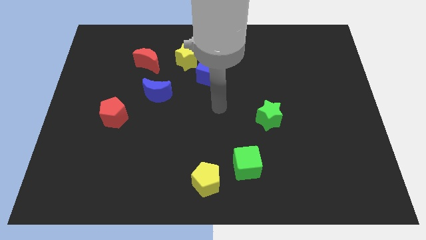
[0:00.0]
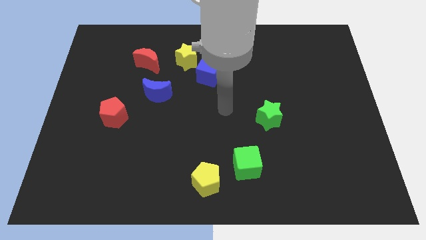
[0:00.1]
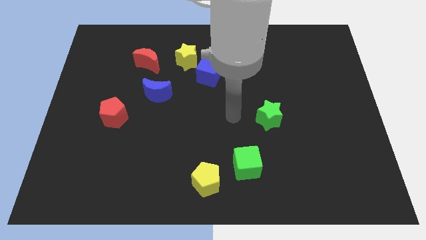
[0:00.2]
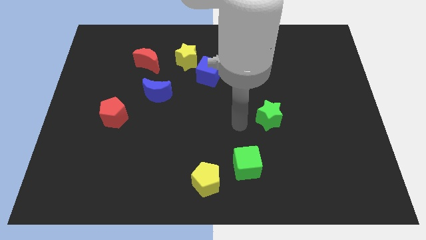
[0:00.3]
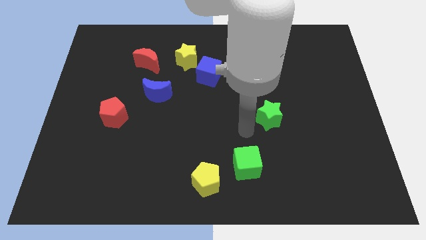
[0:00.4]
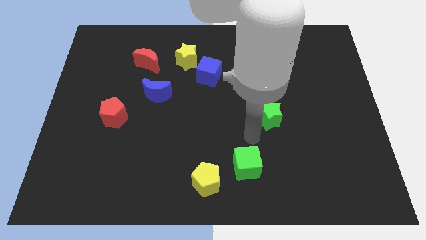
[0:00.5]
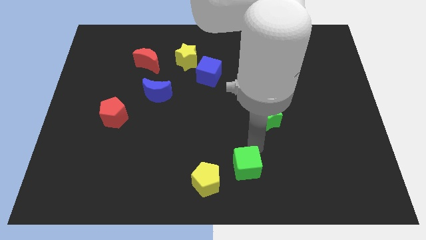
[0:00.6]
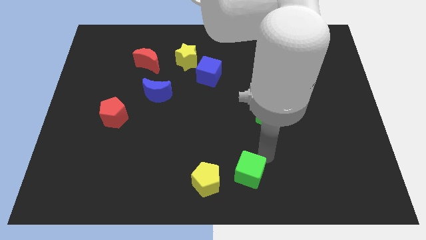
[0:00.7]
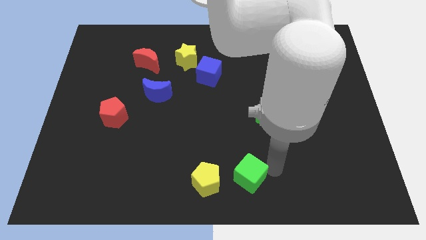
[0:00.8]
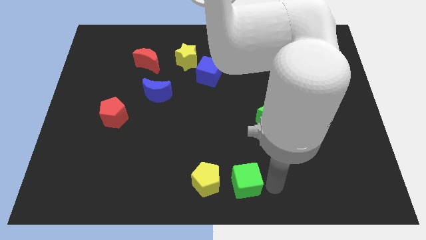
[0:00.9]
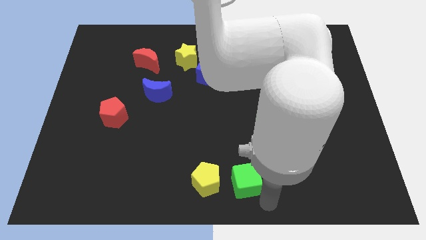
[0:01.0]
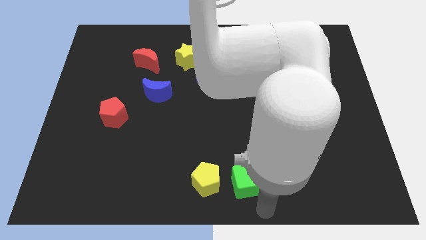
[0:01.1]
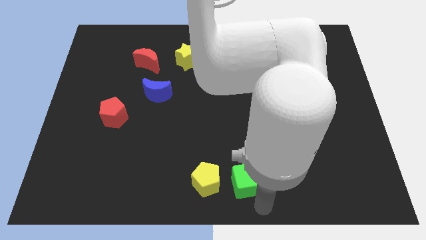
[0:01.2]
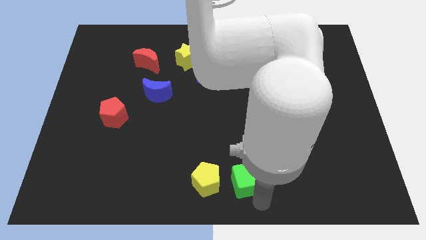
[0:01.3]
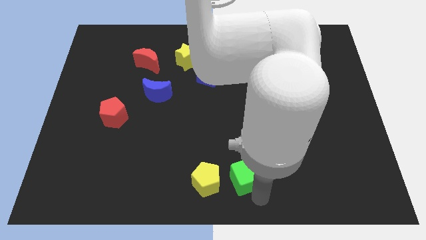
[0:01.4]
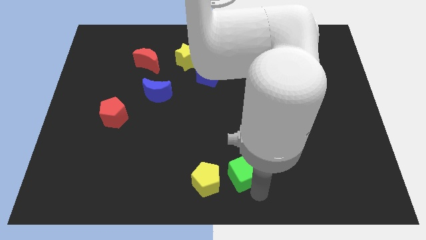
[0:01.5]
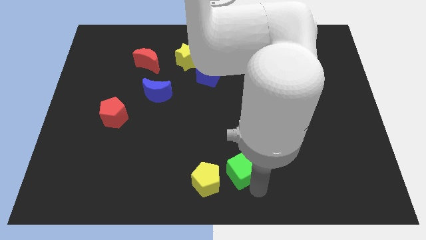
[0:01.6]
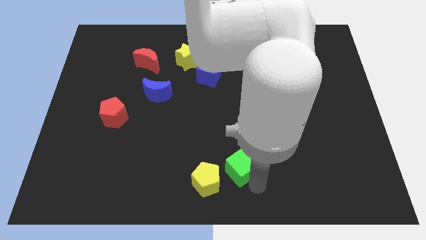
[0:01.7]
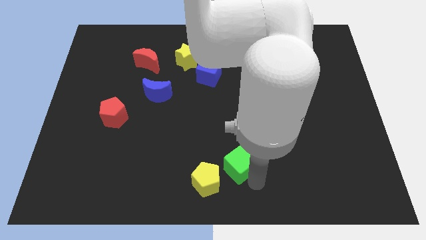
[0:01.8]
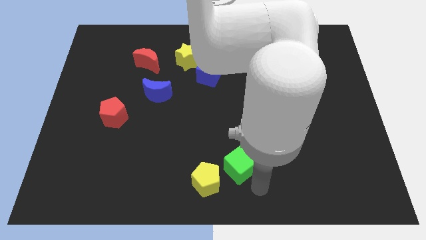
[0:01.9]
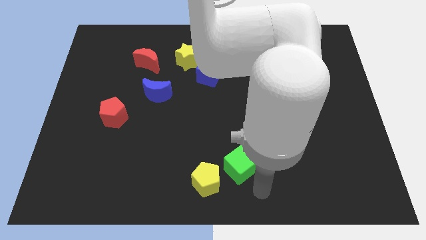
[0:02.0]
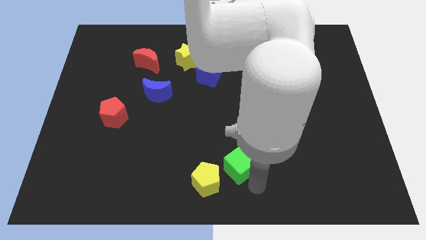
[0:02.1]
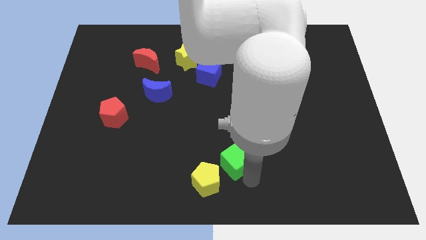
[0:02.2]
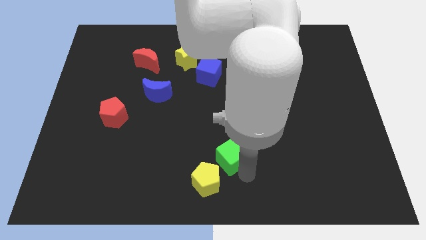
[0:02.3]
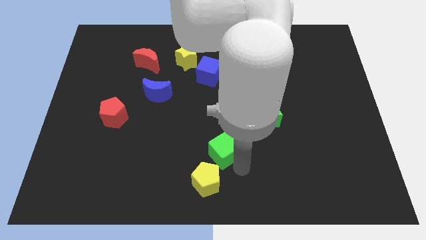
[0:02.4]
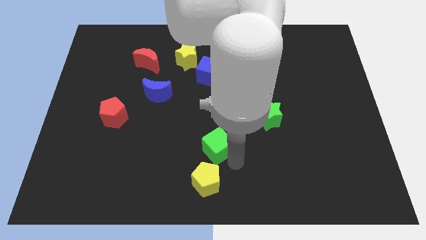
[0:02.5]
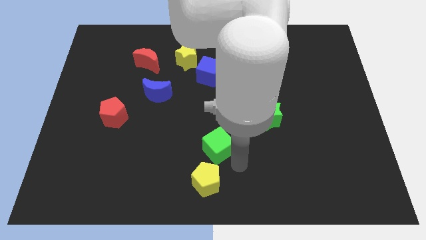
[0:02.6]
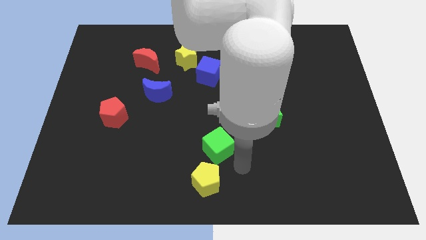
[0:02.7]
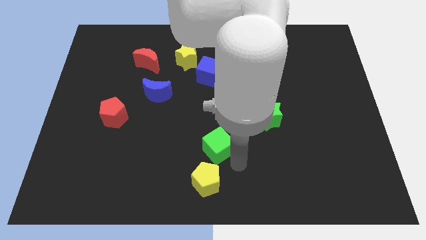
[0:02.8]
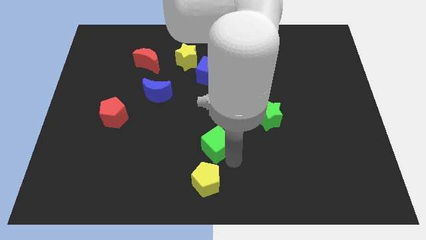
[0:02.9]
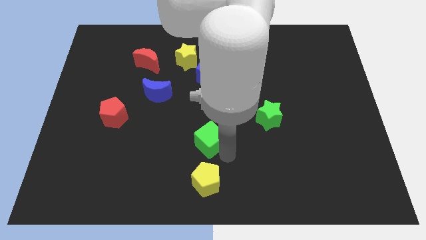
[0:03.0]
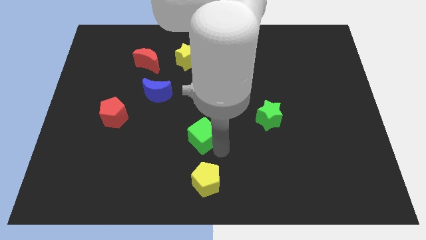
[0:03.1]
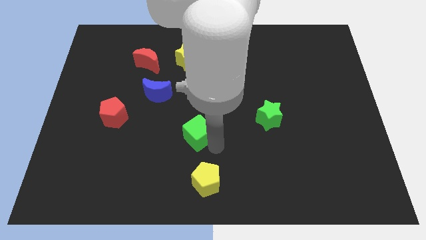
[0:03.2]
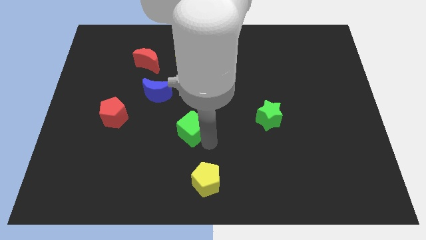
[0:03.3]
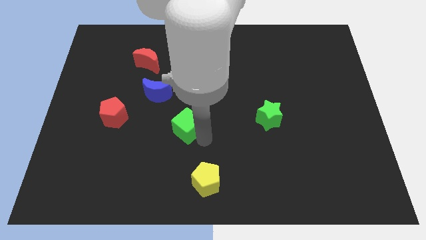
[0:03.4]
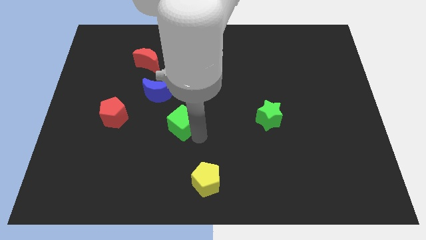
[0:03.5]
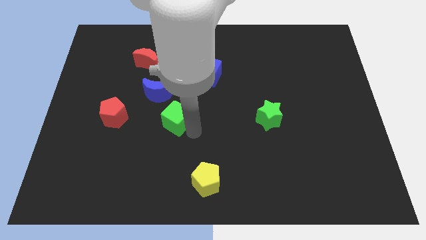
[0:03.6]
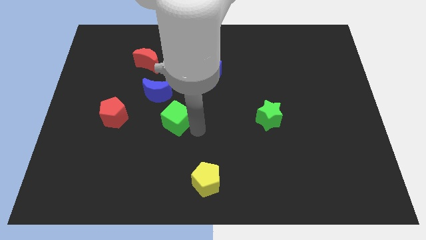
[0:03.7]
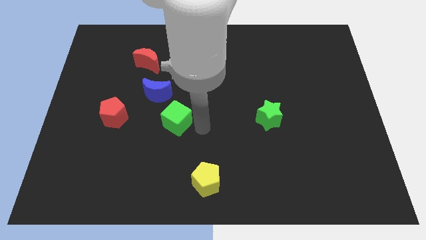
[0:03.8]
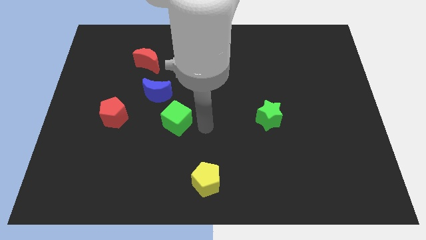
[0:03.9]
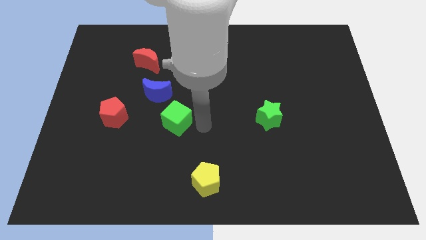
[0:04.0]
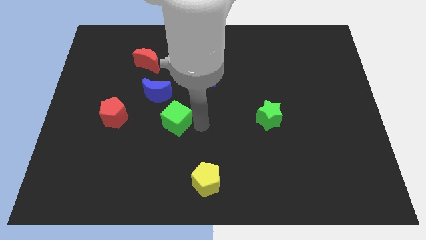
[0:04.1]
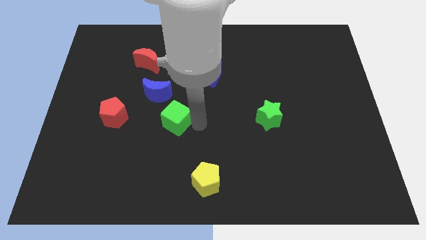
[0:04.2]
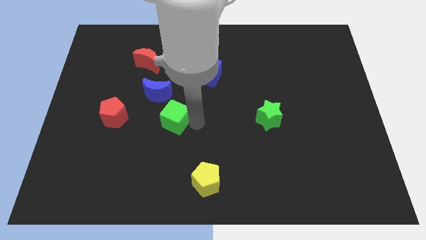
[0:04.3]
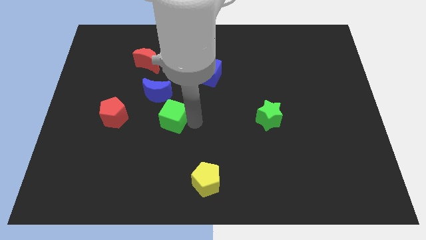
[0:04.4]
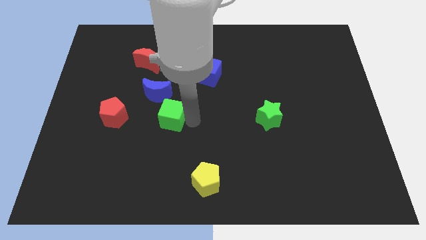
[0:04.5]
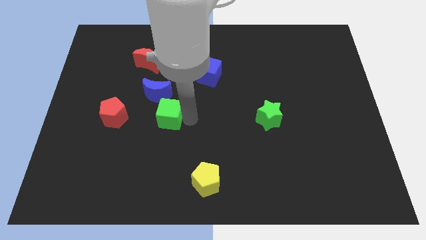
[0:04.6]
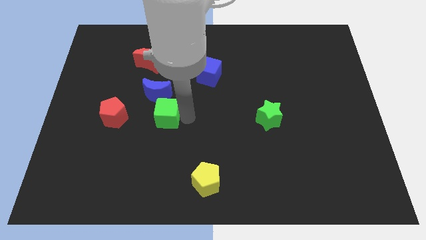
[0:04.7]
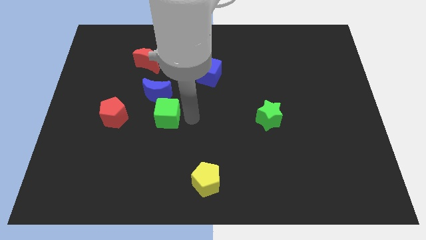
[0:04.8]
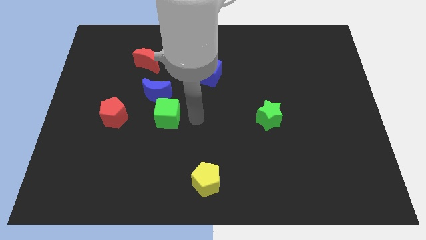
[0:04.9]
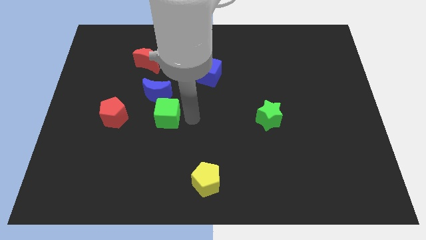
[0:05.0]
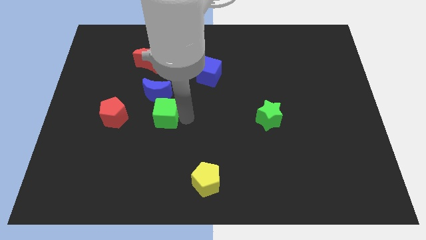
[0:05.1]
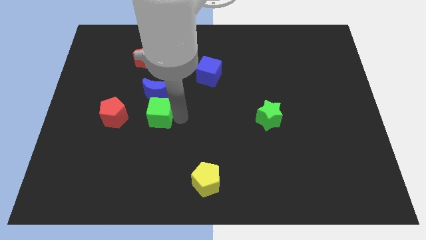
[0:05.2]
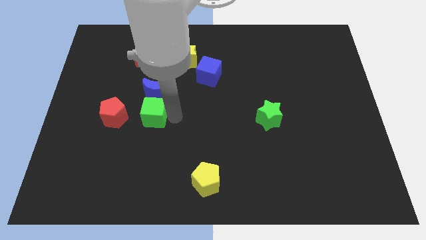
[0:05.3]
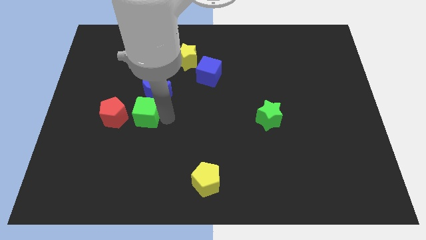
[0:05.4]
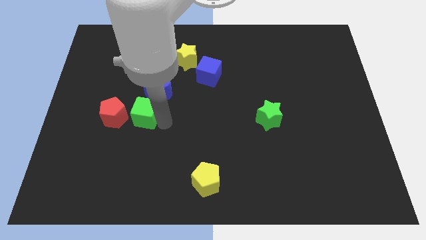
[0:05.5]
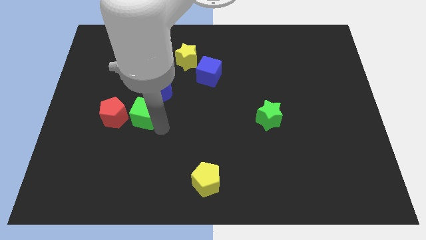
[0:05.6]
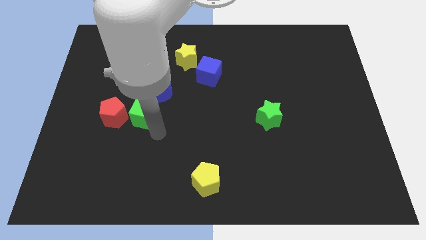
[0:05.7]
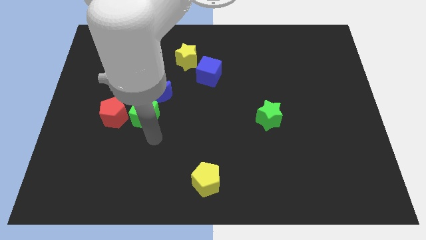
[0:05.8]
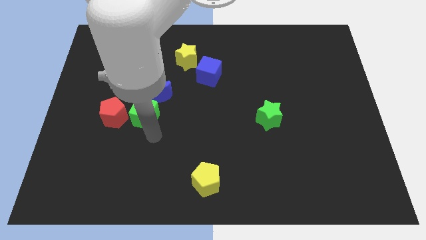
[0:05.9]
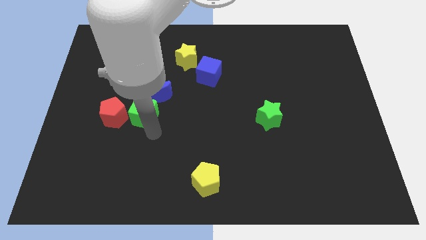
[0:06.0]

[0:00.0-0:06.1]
move the green cube to the top right of the red pentagon

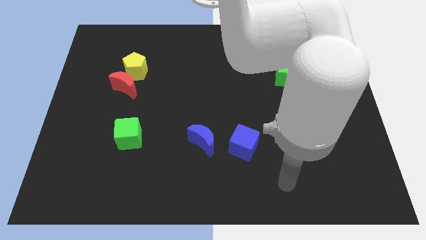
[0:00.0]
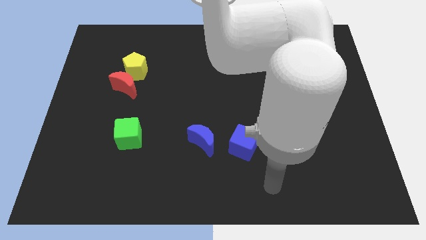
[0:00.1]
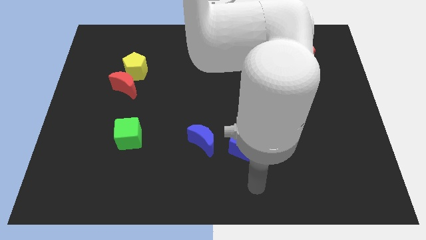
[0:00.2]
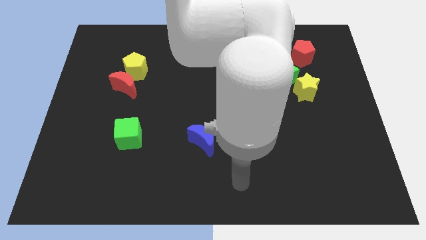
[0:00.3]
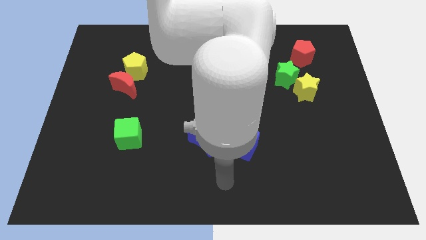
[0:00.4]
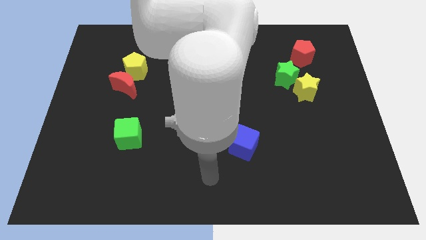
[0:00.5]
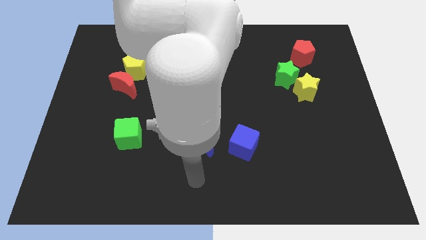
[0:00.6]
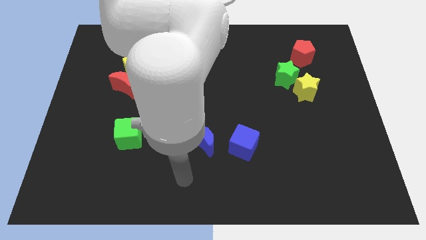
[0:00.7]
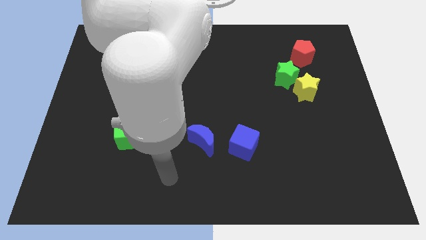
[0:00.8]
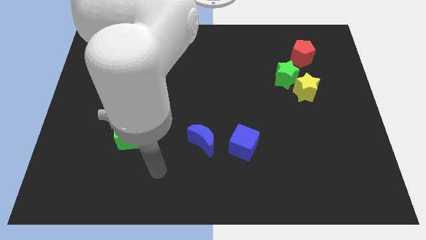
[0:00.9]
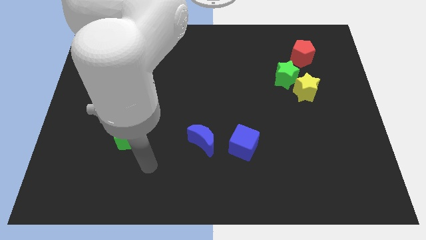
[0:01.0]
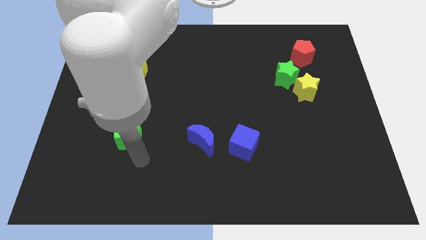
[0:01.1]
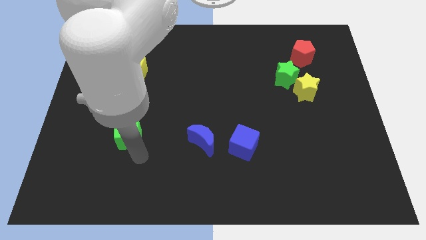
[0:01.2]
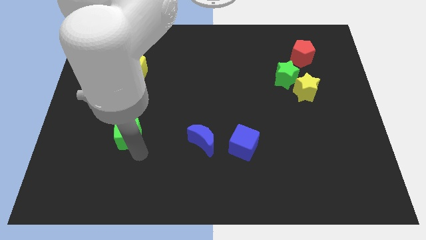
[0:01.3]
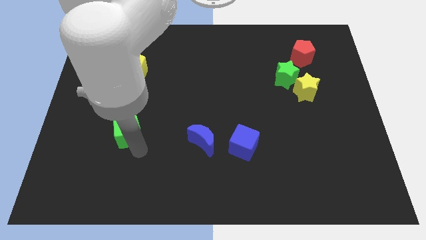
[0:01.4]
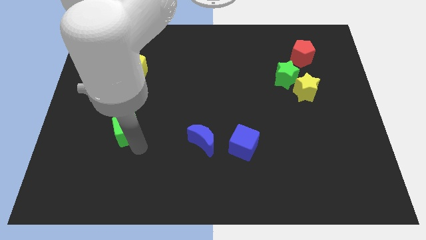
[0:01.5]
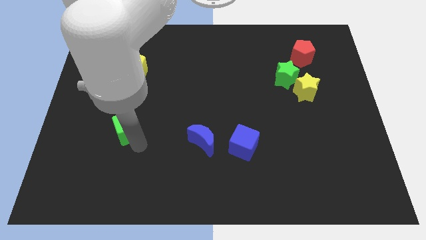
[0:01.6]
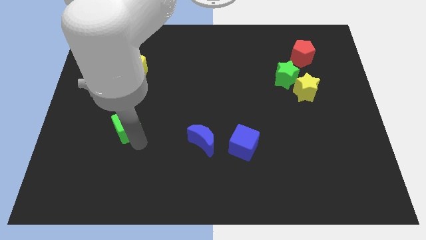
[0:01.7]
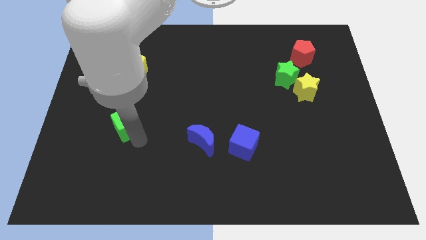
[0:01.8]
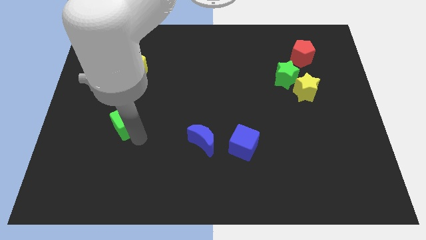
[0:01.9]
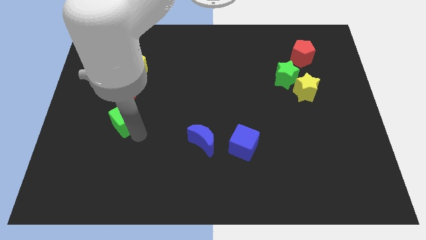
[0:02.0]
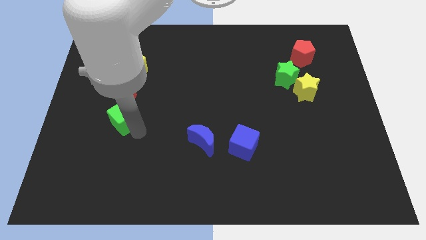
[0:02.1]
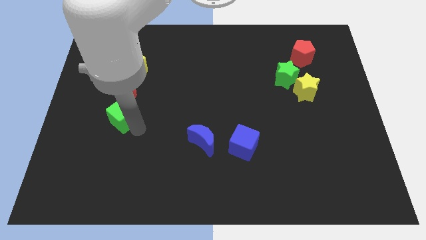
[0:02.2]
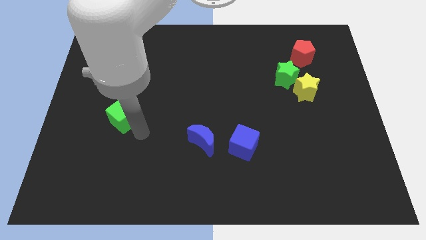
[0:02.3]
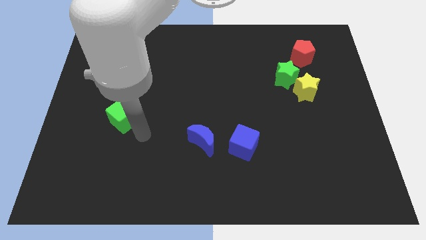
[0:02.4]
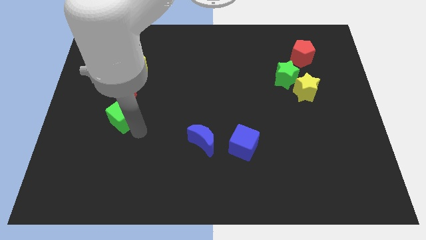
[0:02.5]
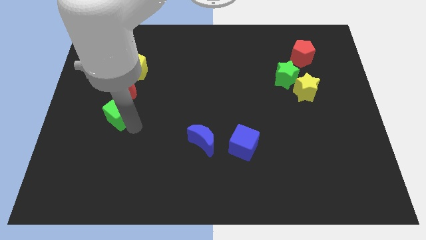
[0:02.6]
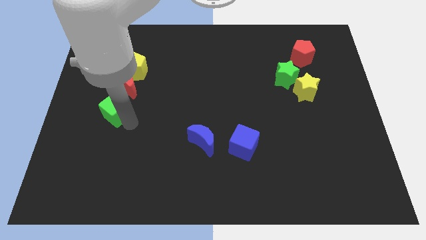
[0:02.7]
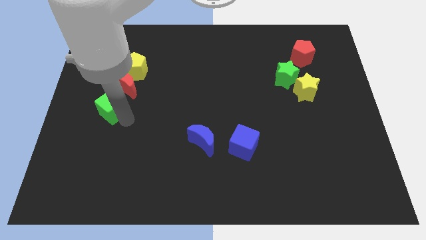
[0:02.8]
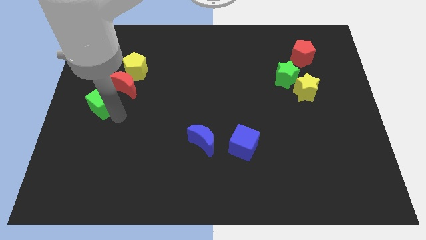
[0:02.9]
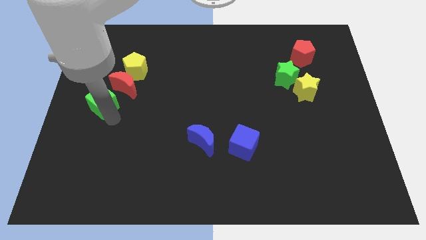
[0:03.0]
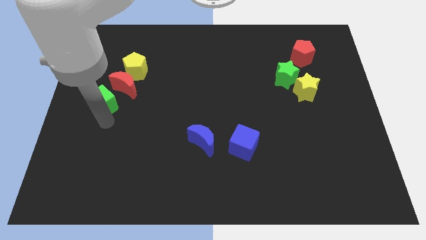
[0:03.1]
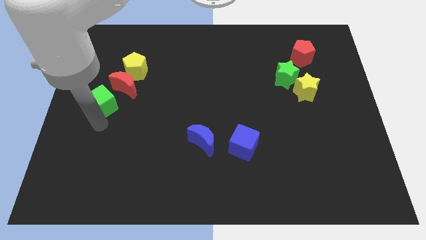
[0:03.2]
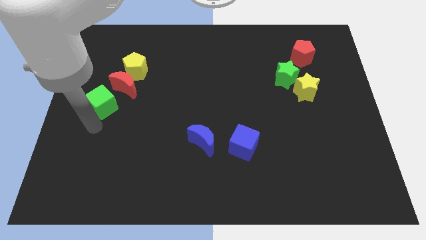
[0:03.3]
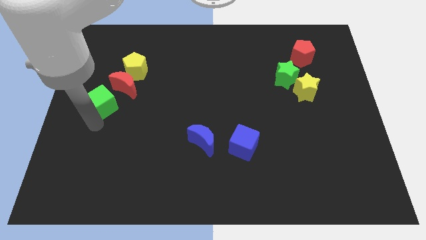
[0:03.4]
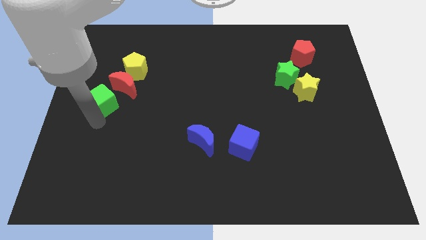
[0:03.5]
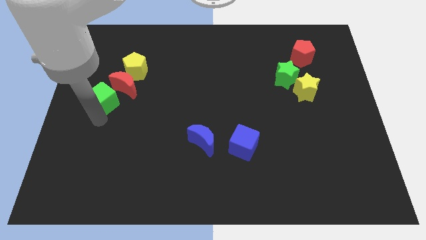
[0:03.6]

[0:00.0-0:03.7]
move the green cube to the bottom left of the yellow pentagon
